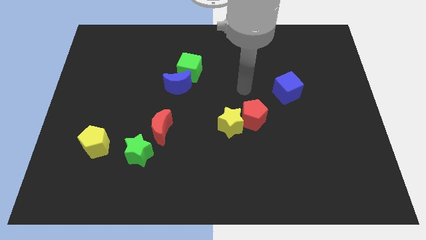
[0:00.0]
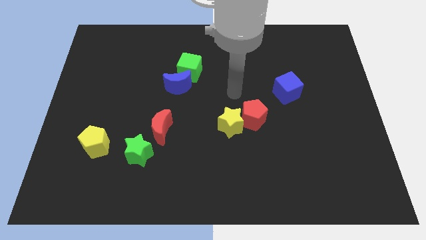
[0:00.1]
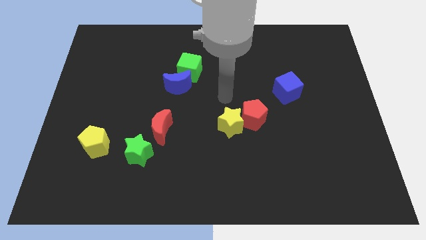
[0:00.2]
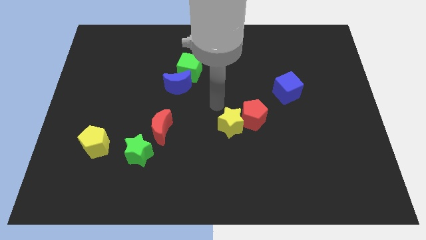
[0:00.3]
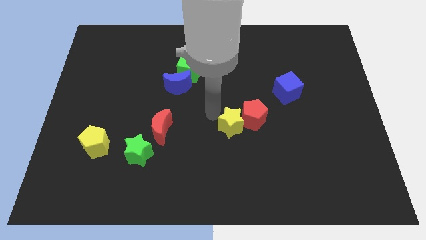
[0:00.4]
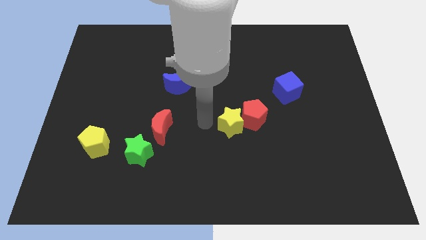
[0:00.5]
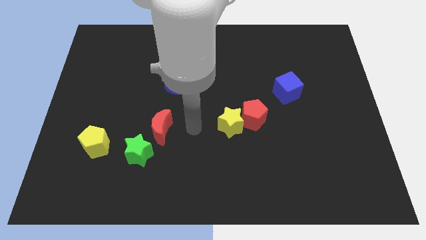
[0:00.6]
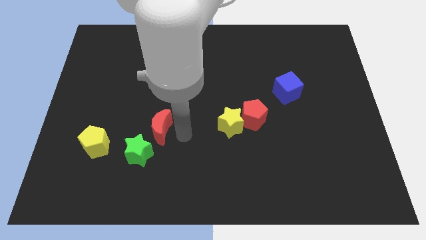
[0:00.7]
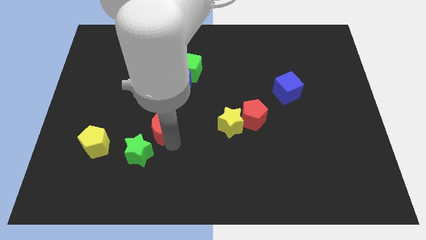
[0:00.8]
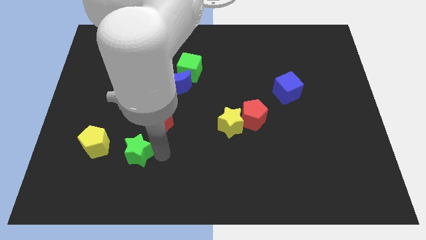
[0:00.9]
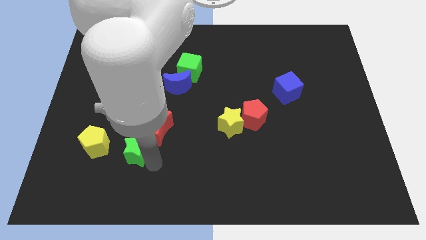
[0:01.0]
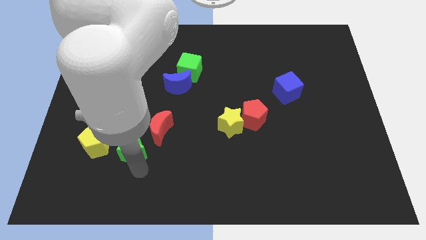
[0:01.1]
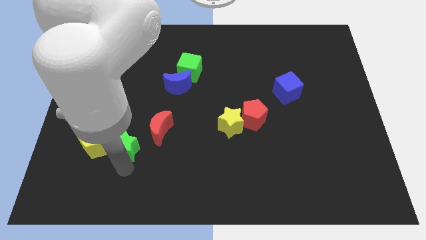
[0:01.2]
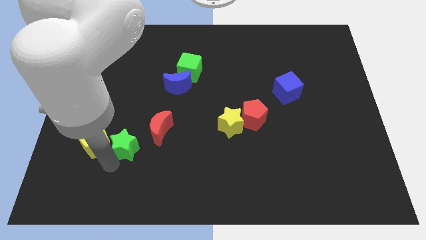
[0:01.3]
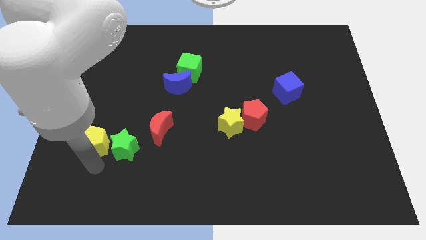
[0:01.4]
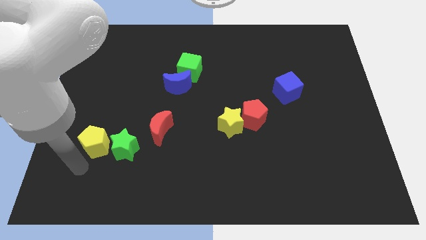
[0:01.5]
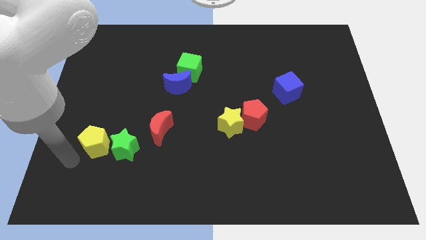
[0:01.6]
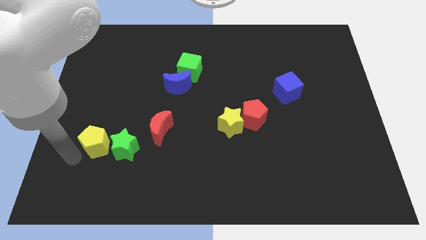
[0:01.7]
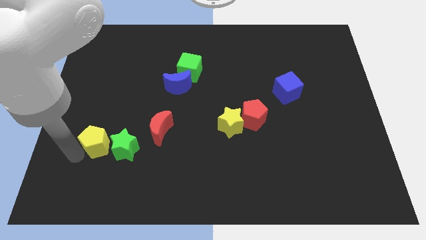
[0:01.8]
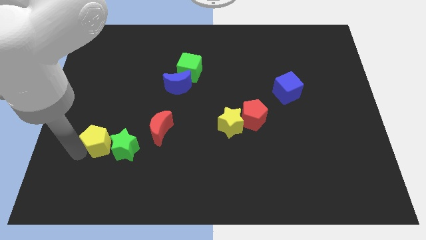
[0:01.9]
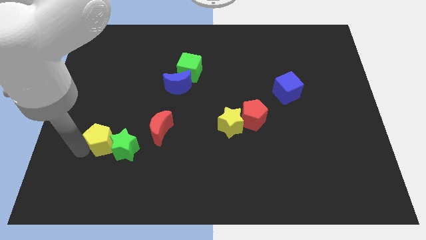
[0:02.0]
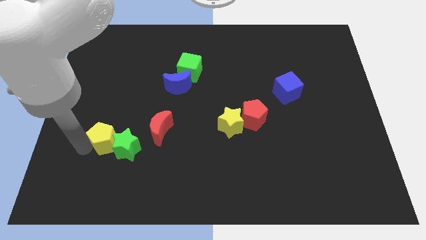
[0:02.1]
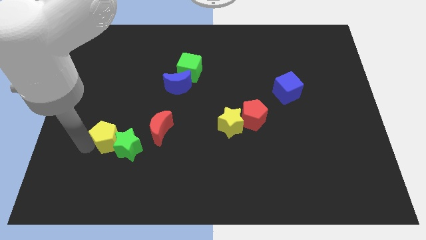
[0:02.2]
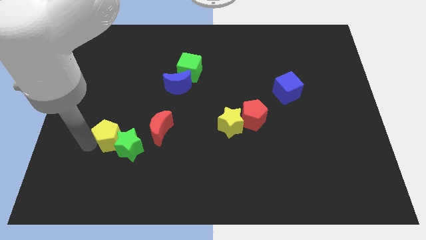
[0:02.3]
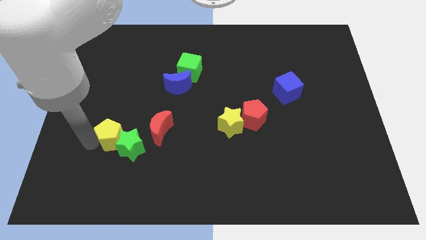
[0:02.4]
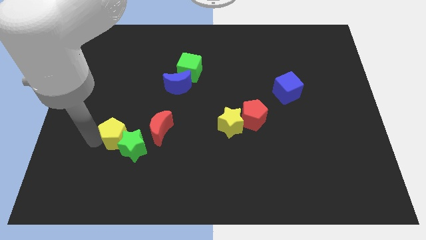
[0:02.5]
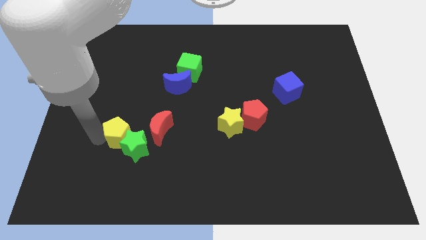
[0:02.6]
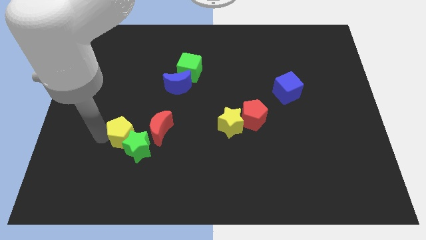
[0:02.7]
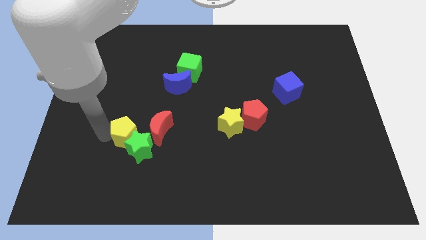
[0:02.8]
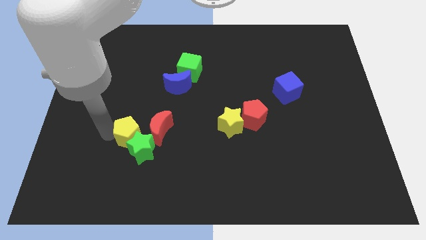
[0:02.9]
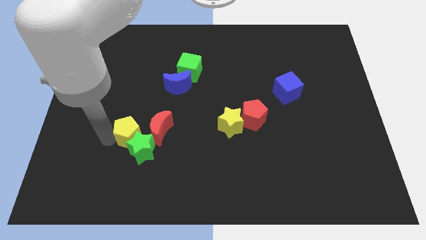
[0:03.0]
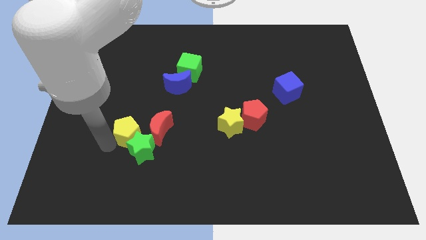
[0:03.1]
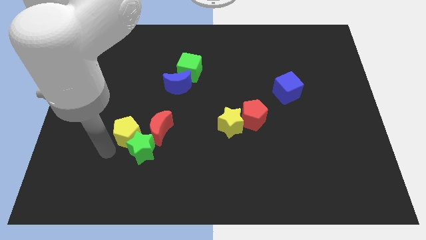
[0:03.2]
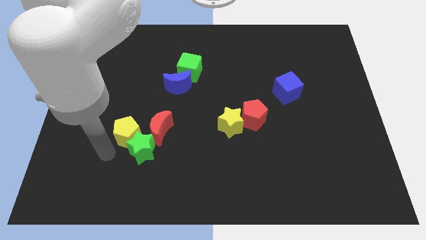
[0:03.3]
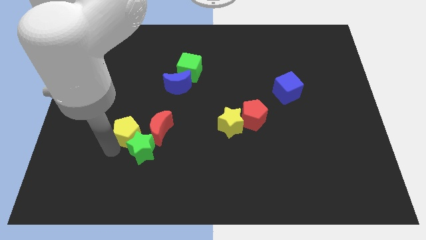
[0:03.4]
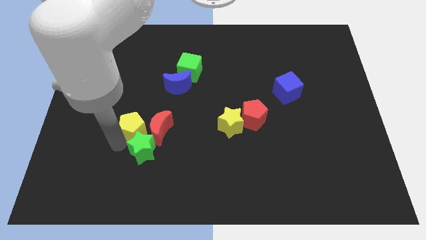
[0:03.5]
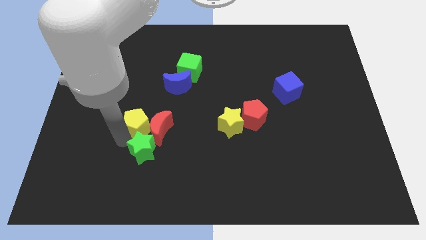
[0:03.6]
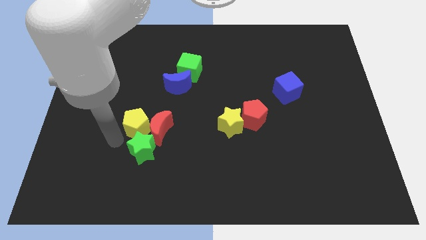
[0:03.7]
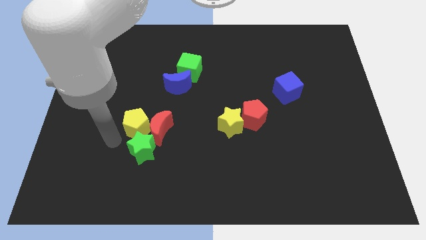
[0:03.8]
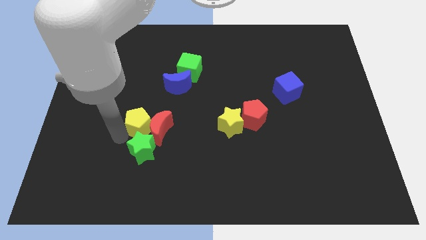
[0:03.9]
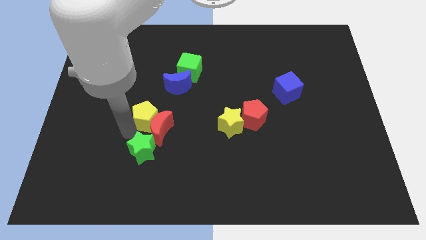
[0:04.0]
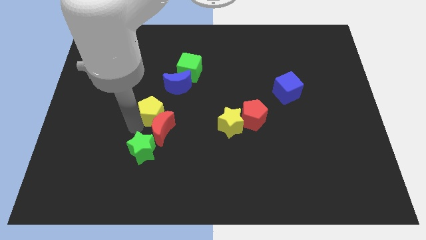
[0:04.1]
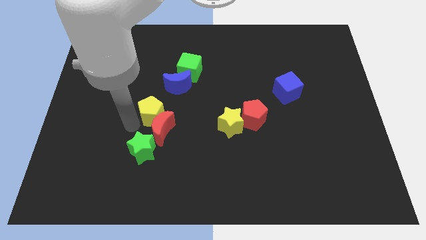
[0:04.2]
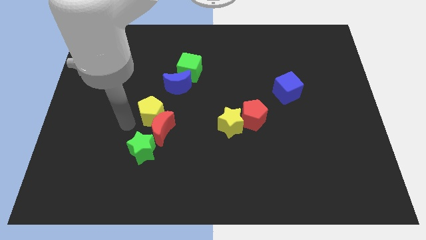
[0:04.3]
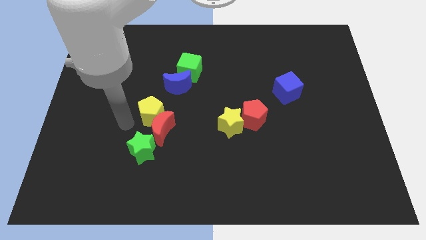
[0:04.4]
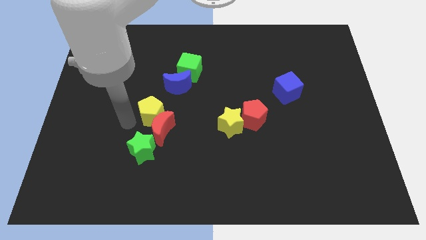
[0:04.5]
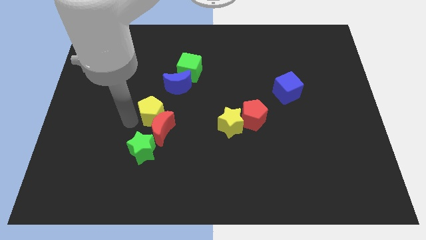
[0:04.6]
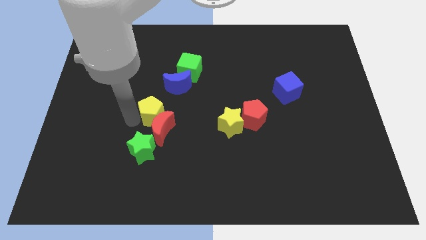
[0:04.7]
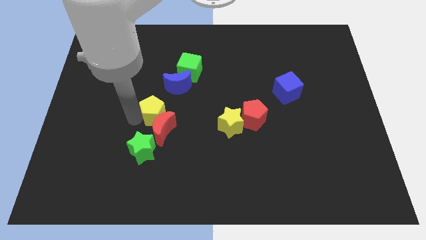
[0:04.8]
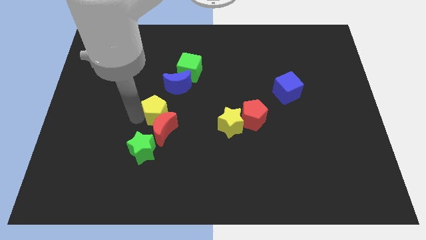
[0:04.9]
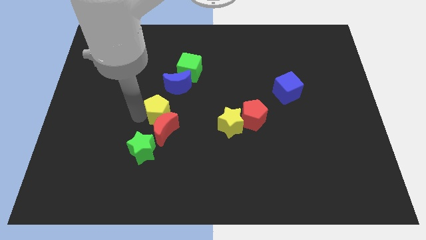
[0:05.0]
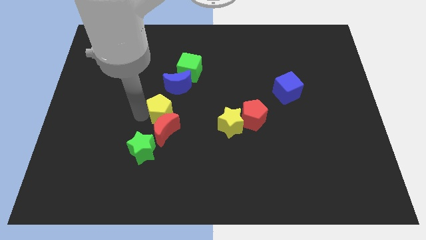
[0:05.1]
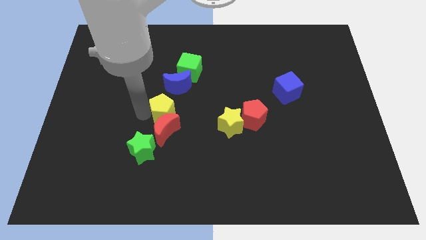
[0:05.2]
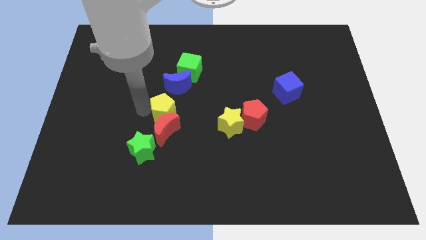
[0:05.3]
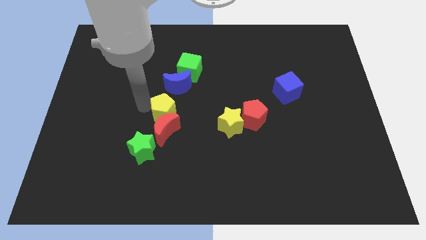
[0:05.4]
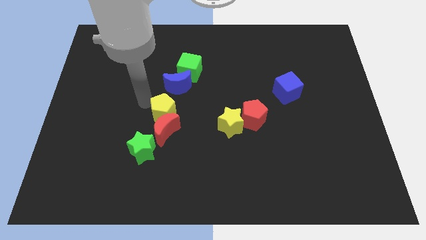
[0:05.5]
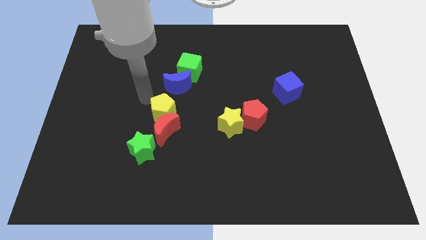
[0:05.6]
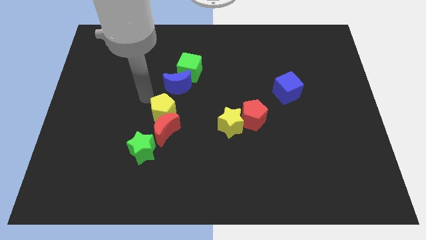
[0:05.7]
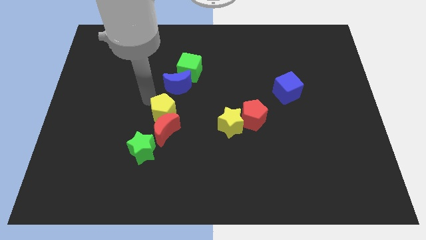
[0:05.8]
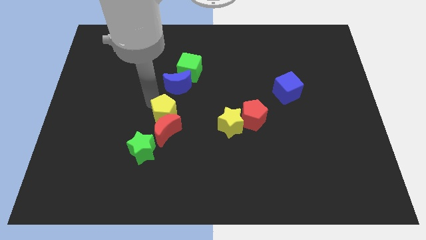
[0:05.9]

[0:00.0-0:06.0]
push the yellow pentagon to the top right side of the green star
